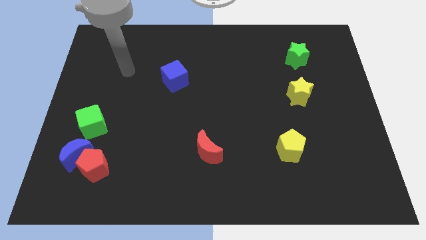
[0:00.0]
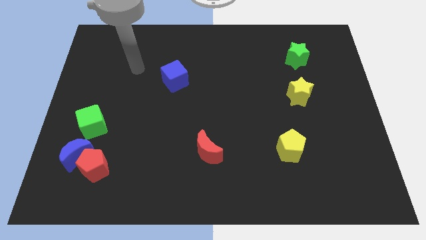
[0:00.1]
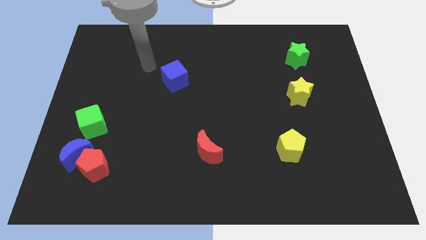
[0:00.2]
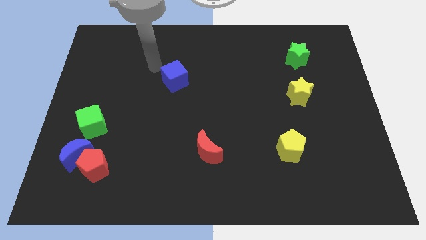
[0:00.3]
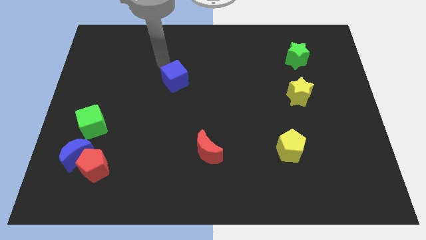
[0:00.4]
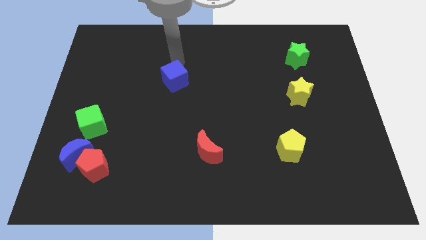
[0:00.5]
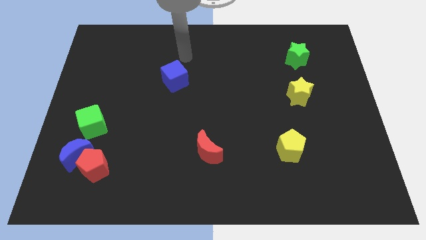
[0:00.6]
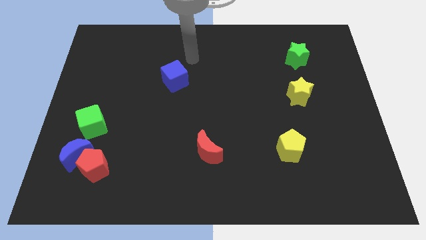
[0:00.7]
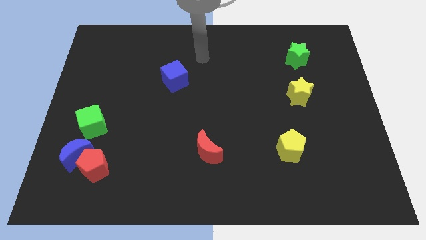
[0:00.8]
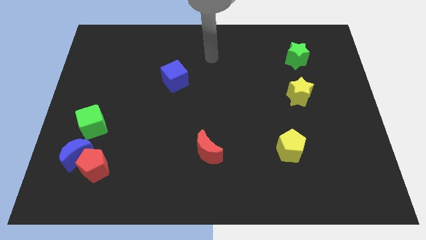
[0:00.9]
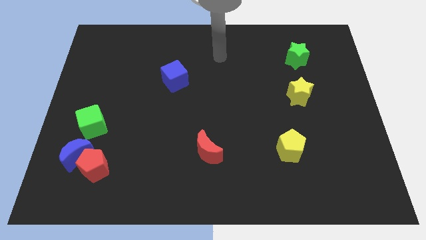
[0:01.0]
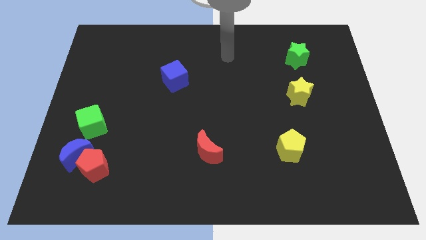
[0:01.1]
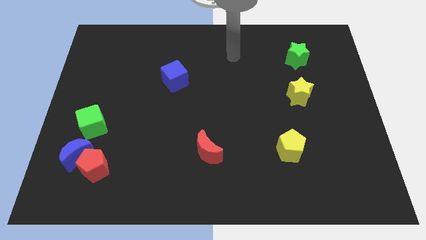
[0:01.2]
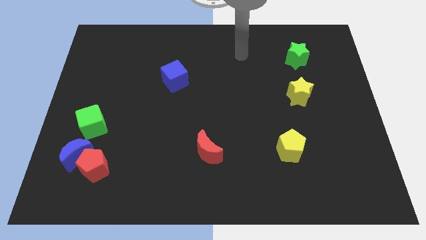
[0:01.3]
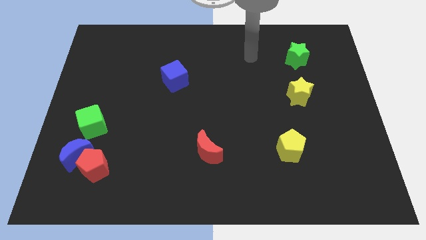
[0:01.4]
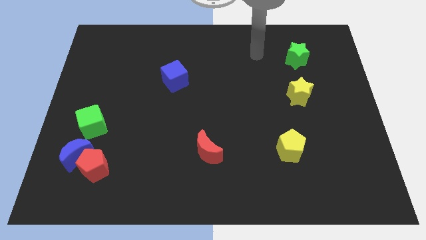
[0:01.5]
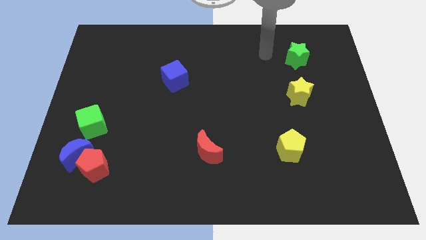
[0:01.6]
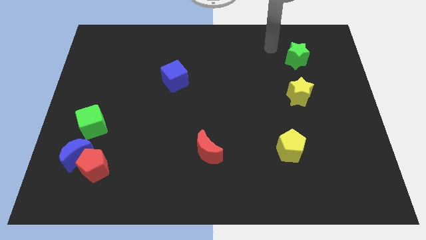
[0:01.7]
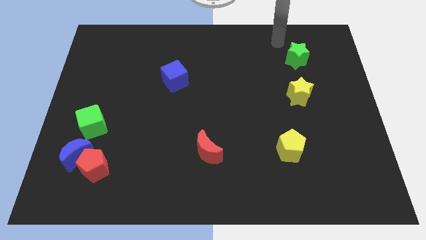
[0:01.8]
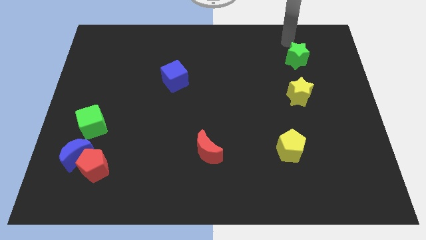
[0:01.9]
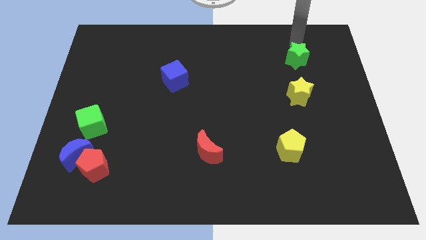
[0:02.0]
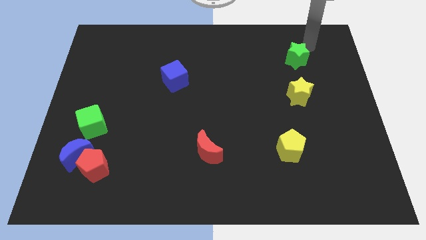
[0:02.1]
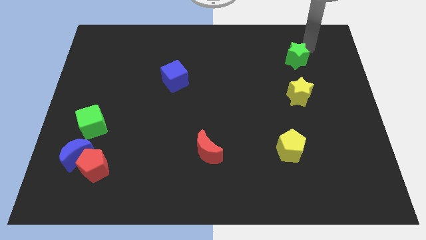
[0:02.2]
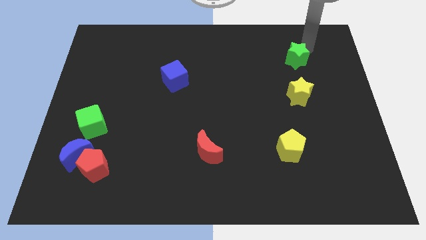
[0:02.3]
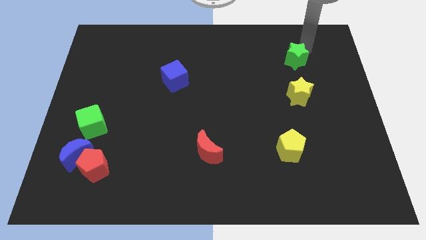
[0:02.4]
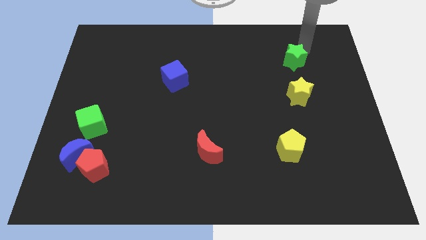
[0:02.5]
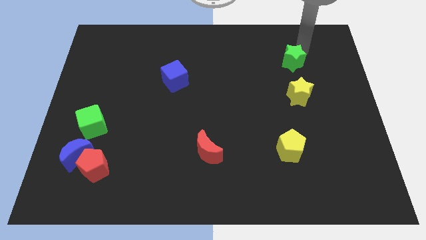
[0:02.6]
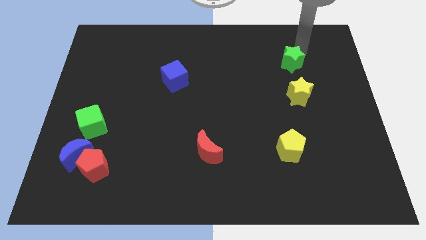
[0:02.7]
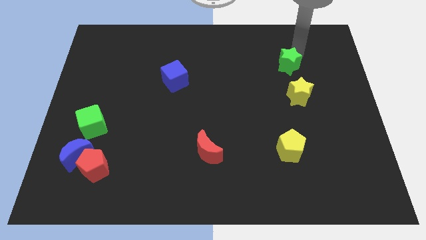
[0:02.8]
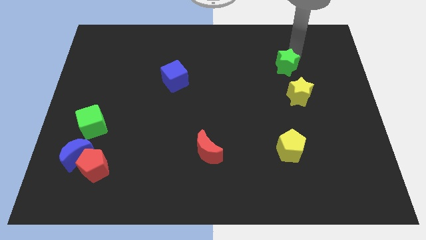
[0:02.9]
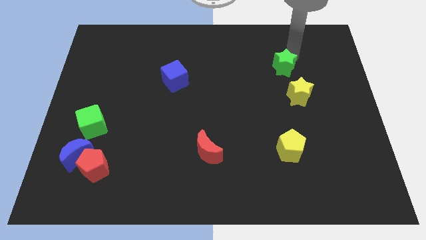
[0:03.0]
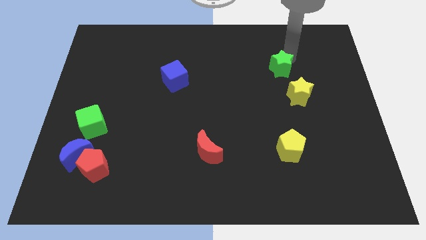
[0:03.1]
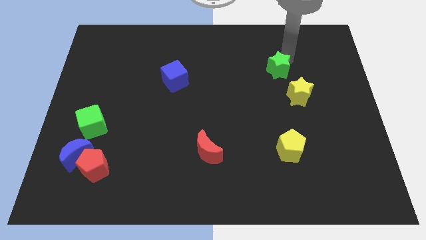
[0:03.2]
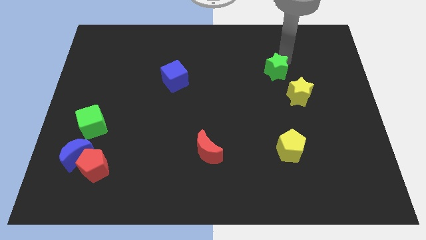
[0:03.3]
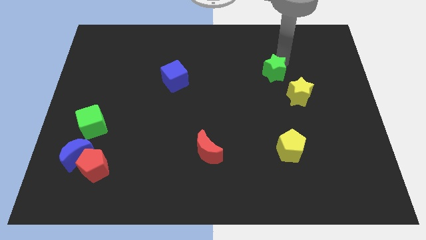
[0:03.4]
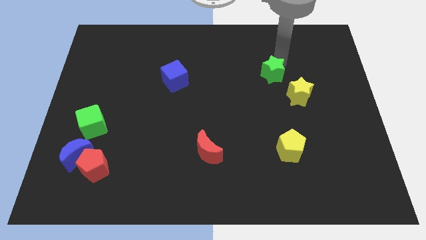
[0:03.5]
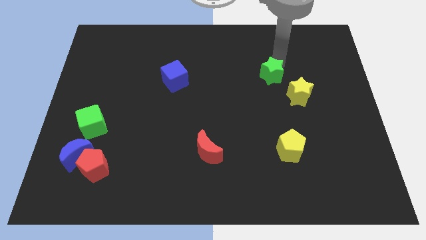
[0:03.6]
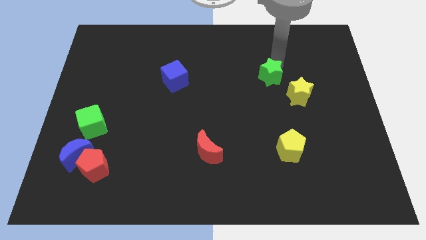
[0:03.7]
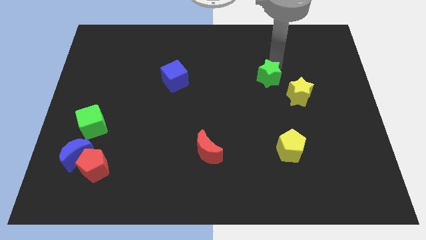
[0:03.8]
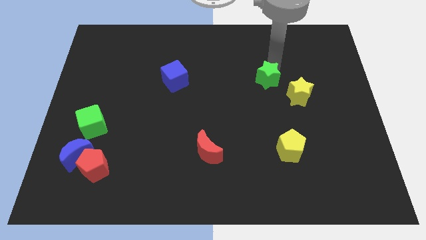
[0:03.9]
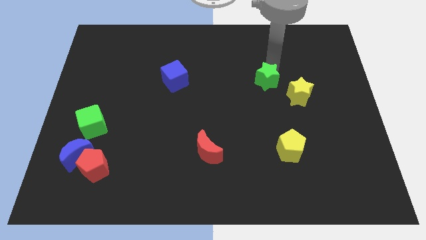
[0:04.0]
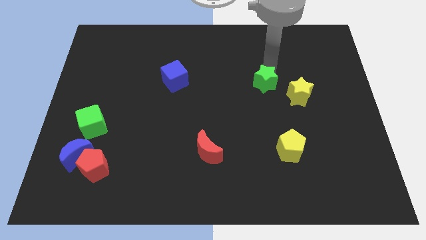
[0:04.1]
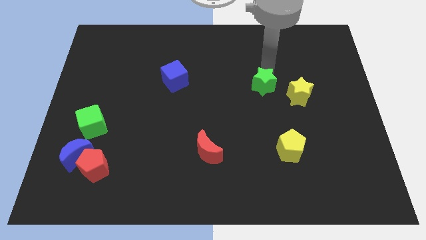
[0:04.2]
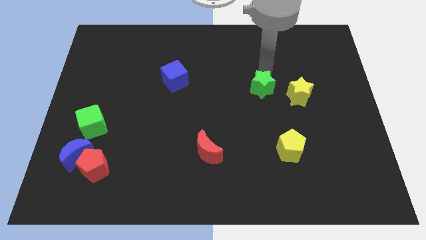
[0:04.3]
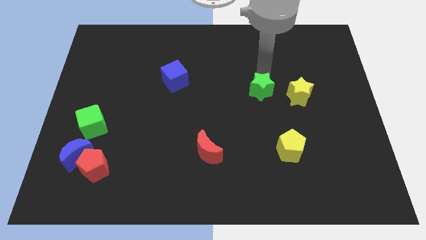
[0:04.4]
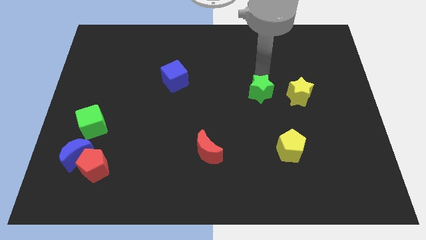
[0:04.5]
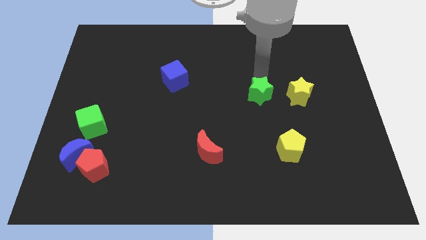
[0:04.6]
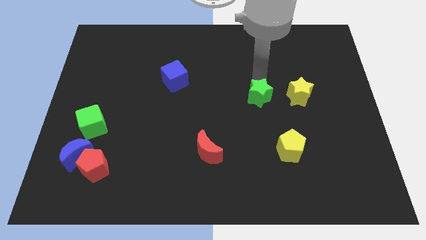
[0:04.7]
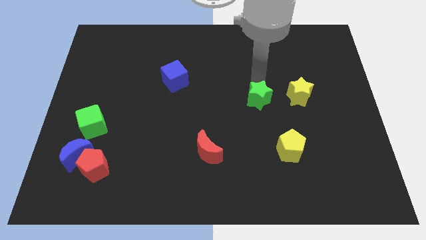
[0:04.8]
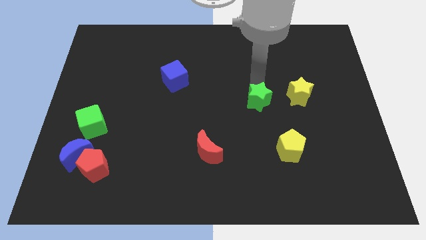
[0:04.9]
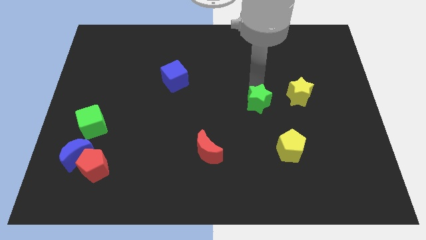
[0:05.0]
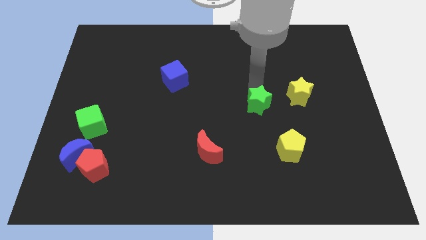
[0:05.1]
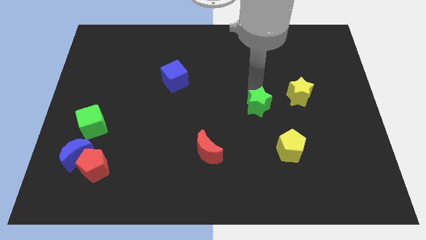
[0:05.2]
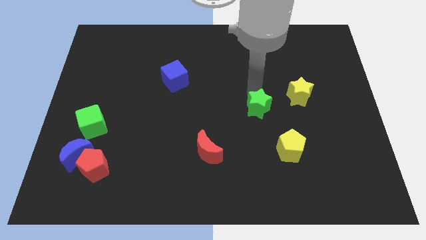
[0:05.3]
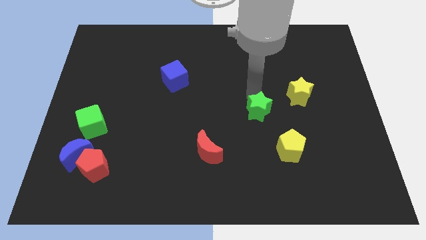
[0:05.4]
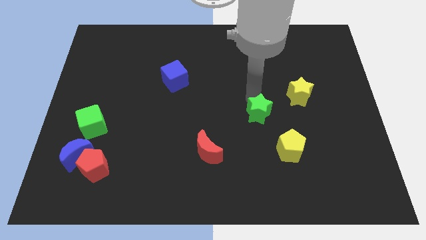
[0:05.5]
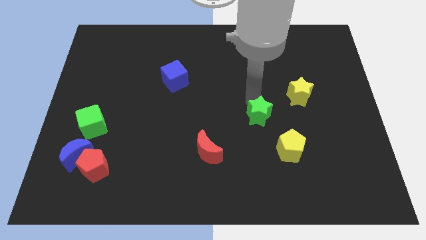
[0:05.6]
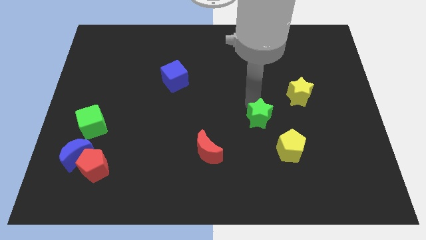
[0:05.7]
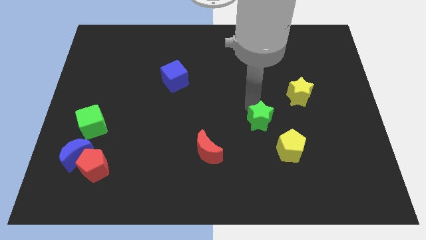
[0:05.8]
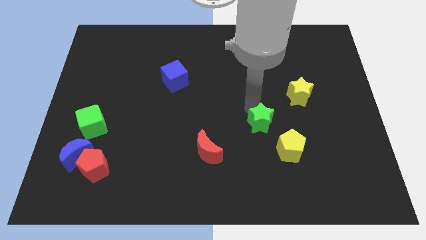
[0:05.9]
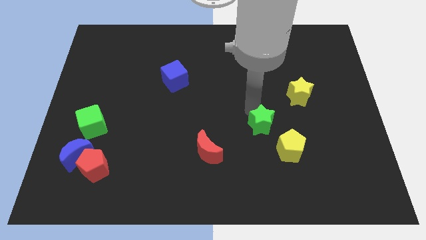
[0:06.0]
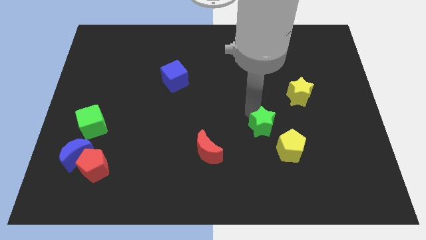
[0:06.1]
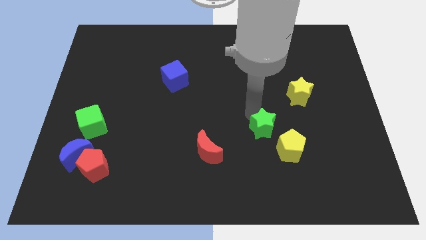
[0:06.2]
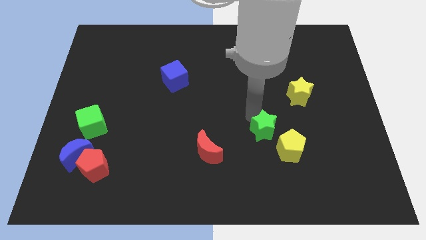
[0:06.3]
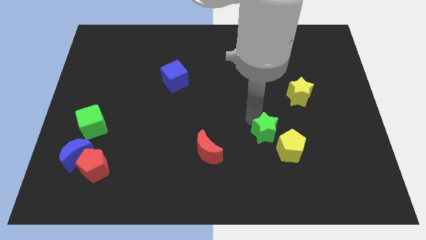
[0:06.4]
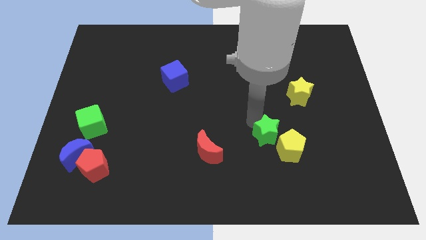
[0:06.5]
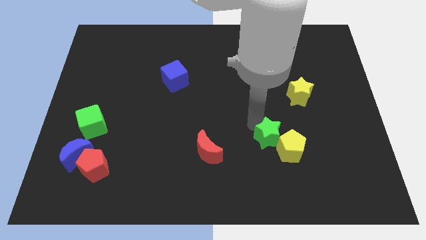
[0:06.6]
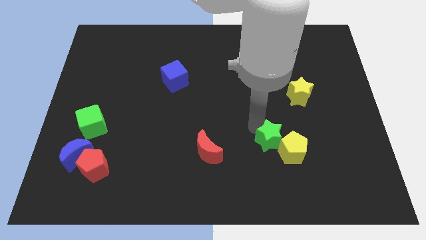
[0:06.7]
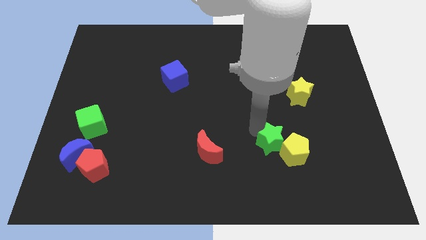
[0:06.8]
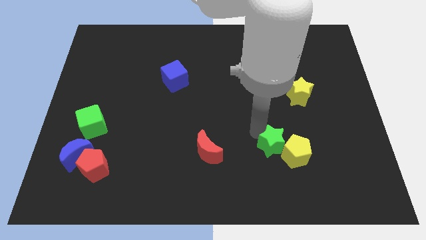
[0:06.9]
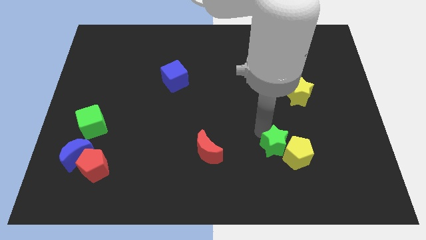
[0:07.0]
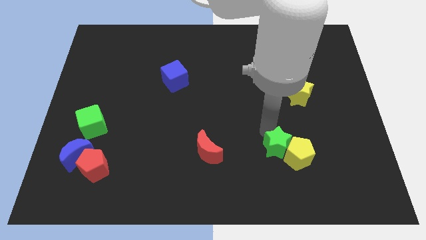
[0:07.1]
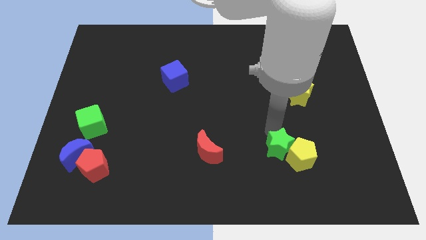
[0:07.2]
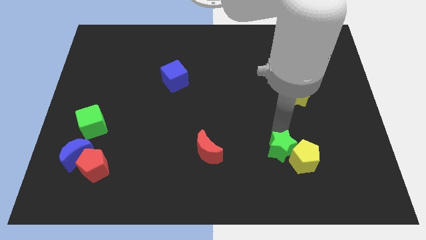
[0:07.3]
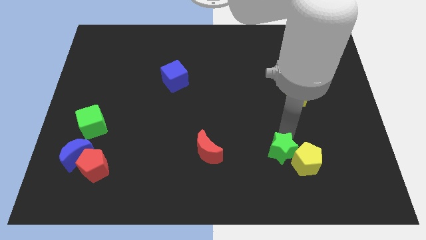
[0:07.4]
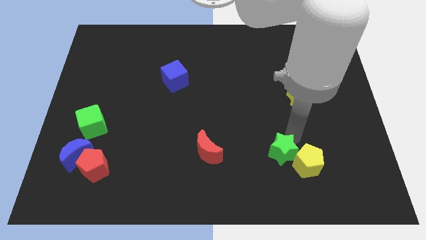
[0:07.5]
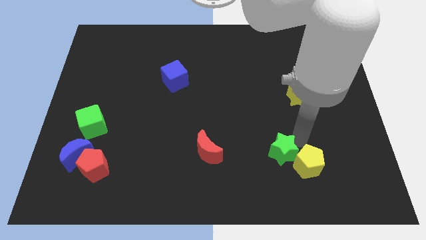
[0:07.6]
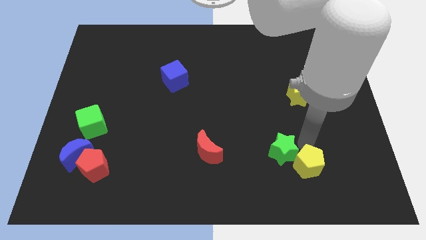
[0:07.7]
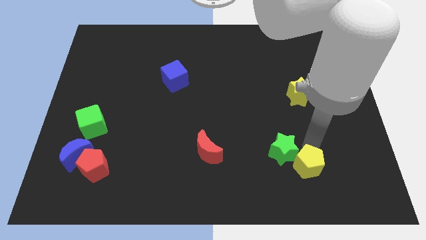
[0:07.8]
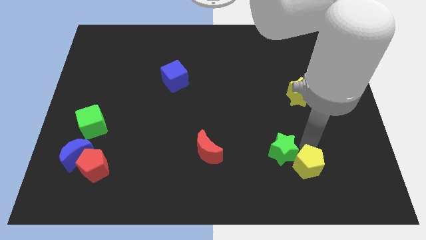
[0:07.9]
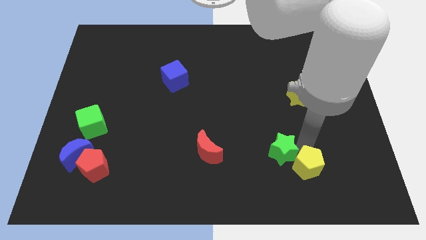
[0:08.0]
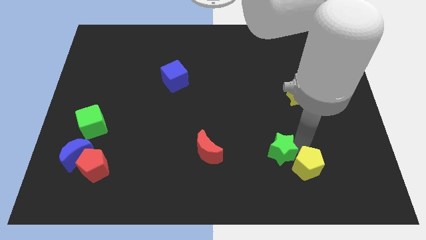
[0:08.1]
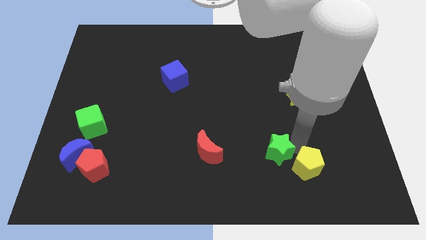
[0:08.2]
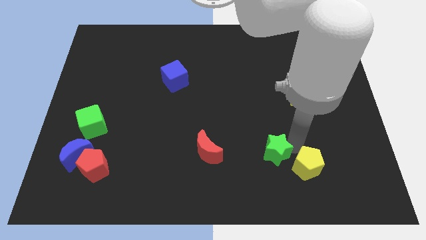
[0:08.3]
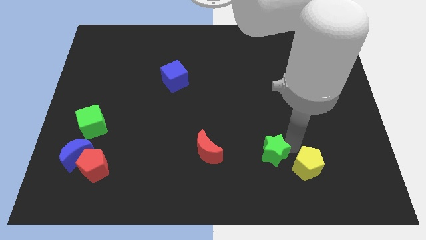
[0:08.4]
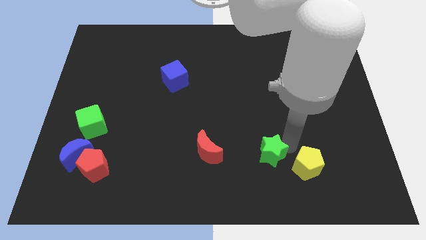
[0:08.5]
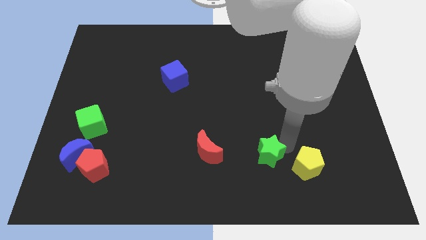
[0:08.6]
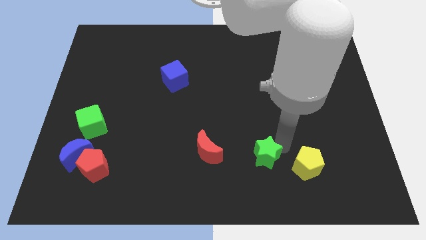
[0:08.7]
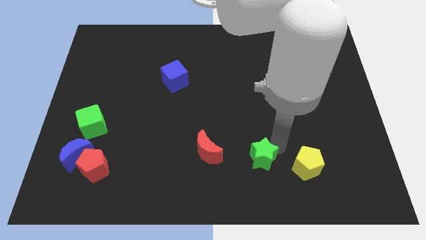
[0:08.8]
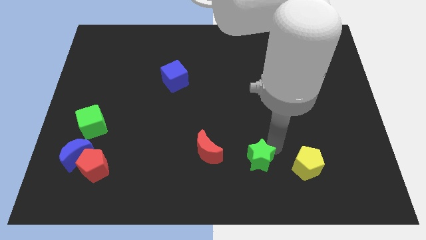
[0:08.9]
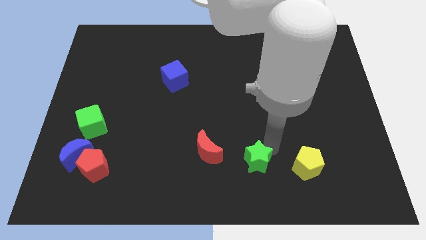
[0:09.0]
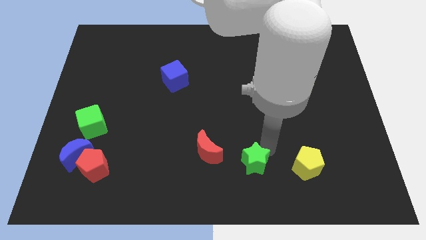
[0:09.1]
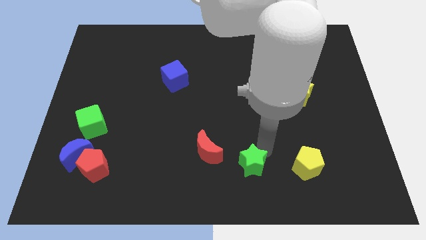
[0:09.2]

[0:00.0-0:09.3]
slide the green star to the bottom
